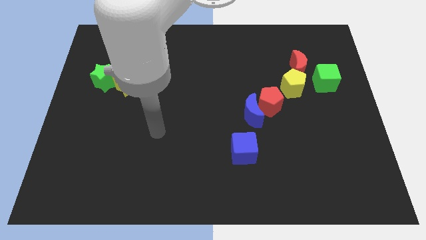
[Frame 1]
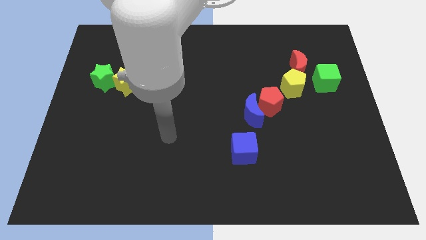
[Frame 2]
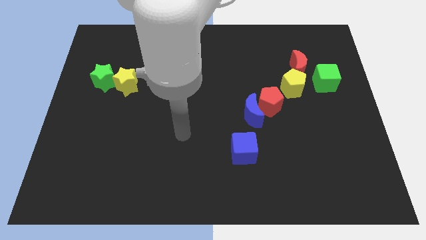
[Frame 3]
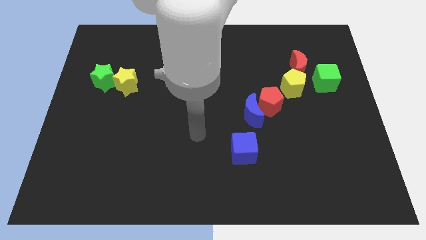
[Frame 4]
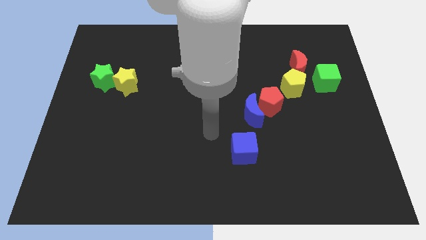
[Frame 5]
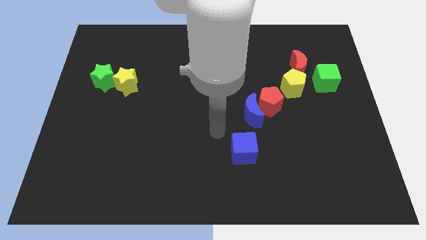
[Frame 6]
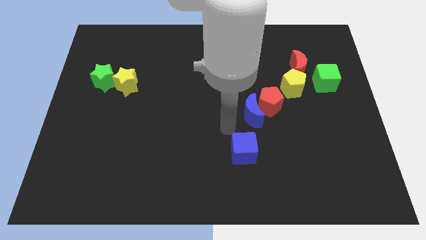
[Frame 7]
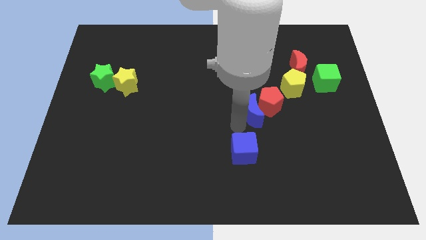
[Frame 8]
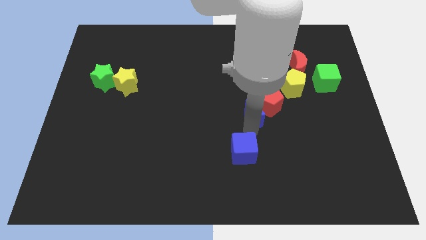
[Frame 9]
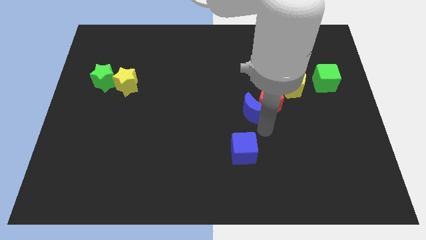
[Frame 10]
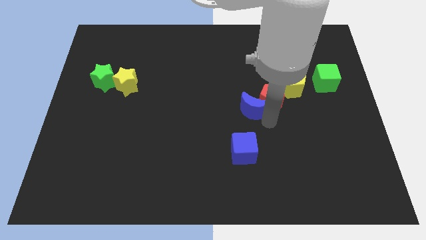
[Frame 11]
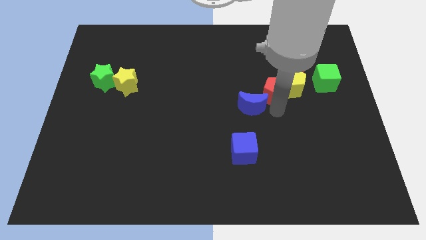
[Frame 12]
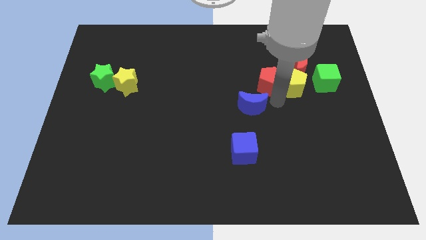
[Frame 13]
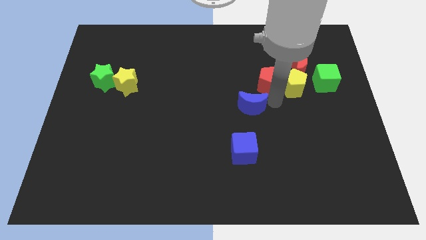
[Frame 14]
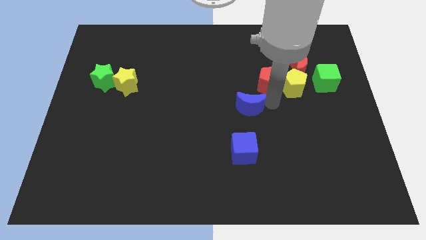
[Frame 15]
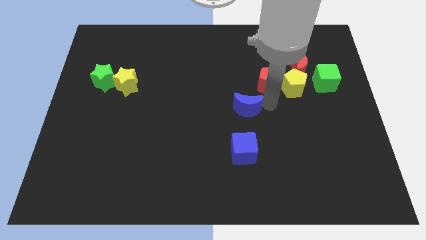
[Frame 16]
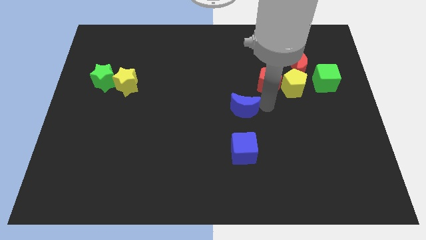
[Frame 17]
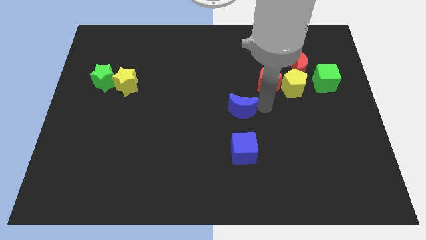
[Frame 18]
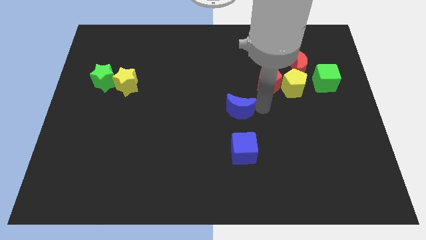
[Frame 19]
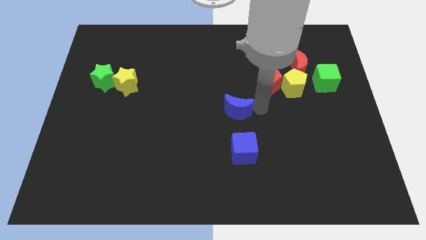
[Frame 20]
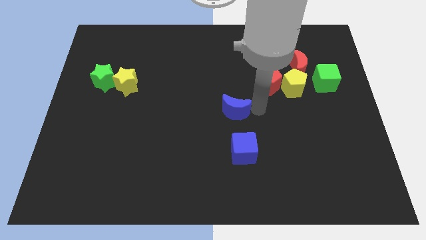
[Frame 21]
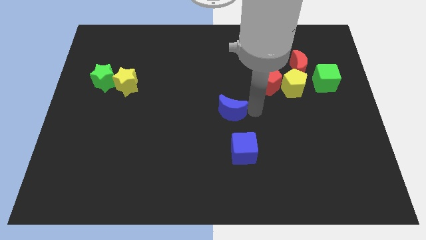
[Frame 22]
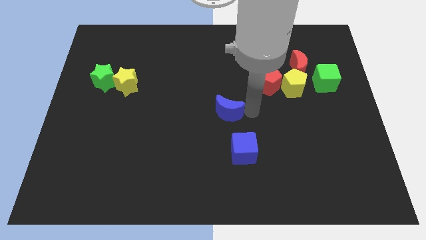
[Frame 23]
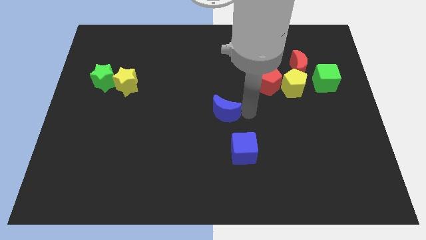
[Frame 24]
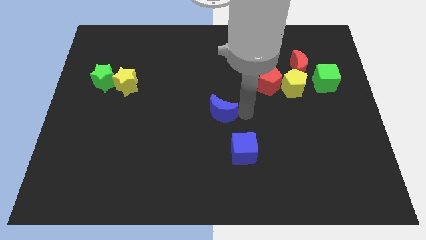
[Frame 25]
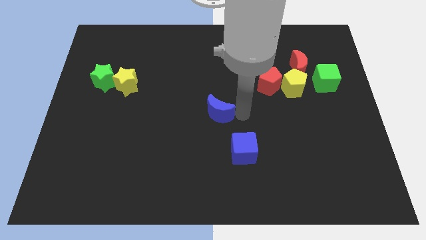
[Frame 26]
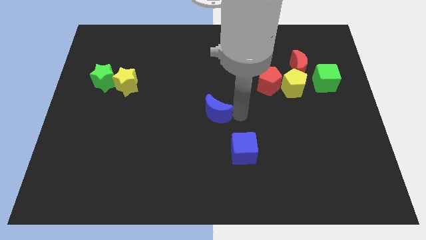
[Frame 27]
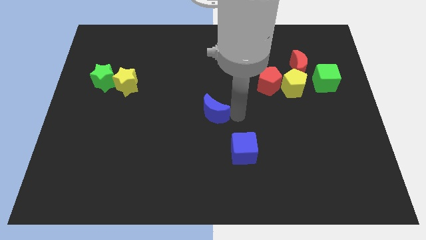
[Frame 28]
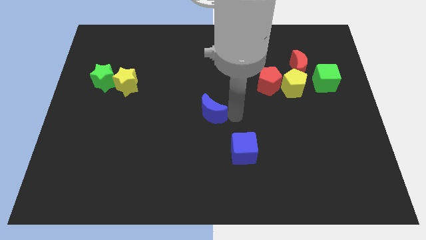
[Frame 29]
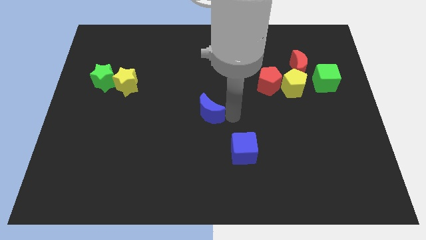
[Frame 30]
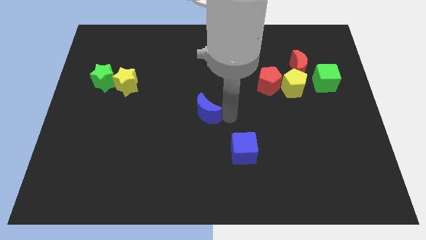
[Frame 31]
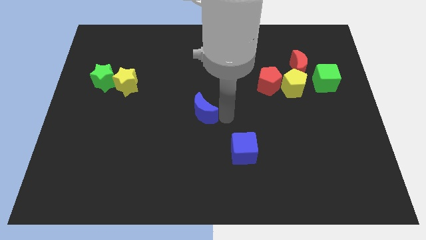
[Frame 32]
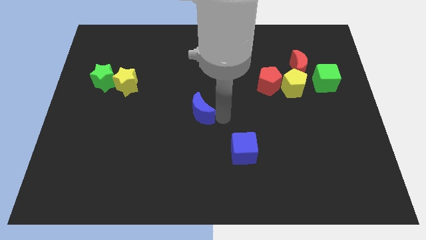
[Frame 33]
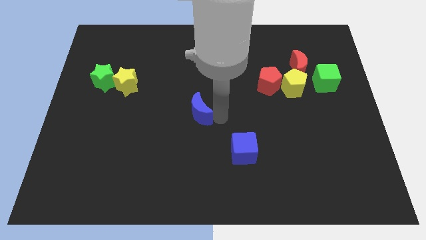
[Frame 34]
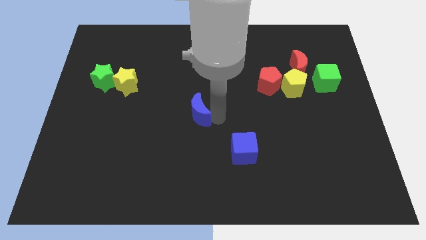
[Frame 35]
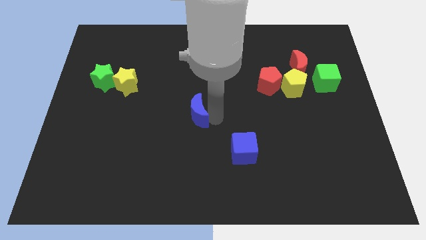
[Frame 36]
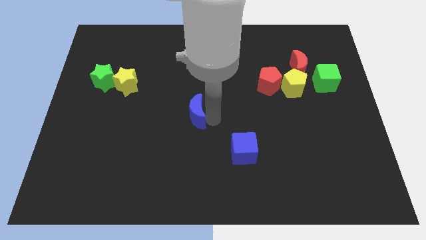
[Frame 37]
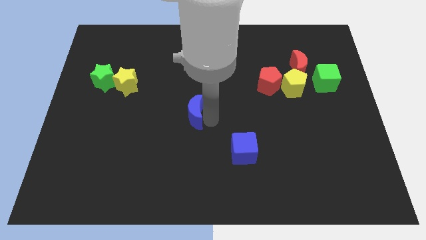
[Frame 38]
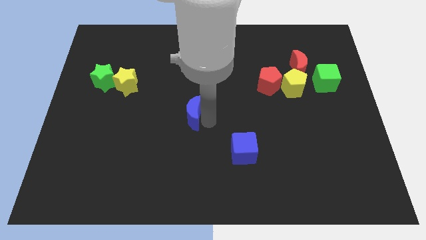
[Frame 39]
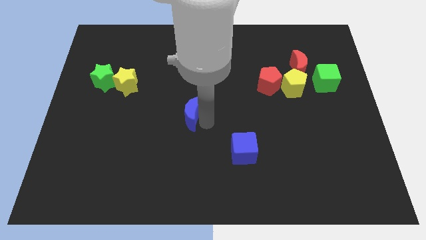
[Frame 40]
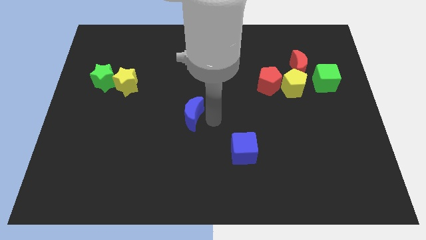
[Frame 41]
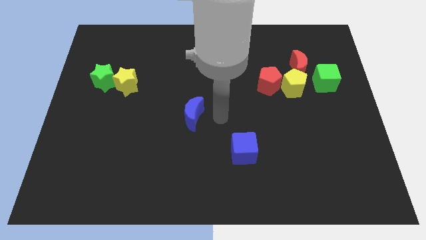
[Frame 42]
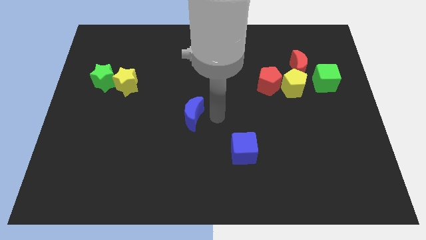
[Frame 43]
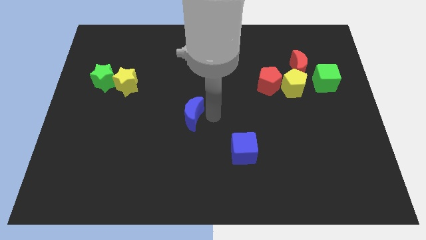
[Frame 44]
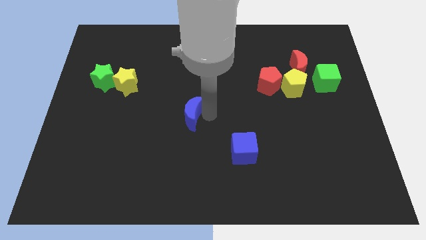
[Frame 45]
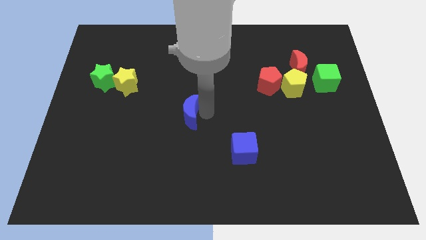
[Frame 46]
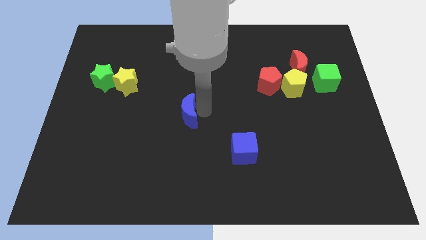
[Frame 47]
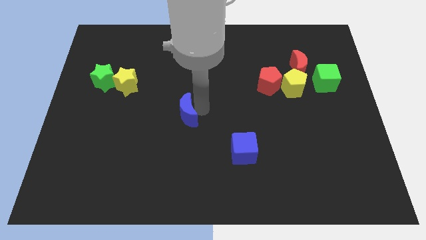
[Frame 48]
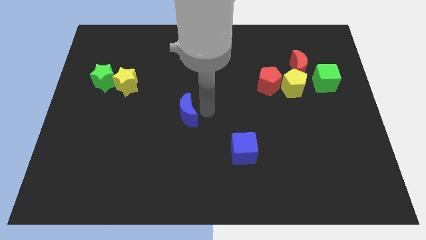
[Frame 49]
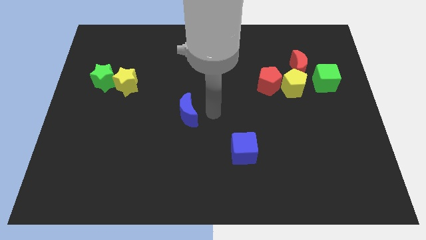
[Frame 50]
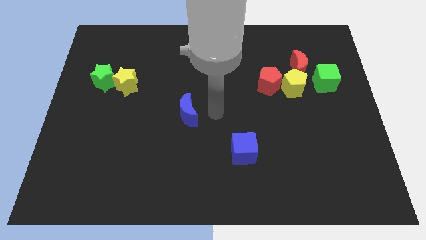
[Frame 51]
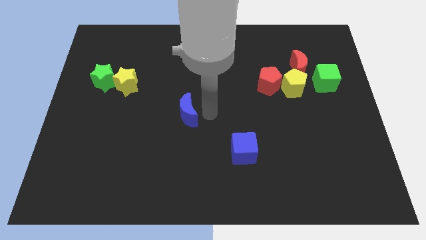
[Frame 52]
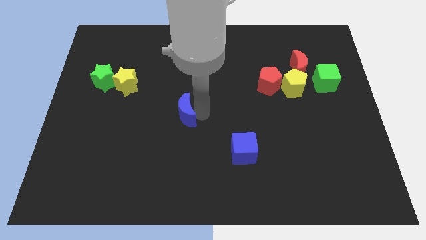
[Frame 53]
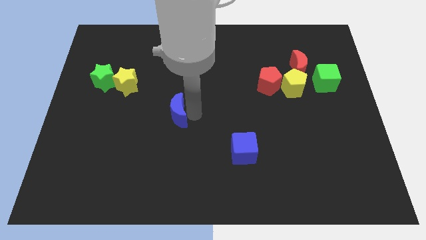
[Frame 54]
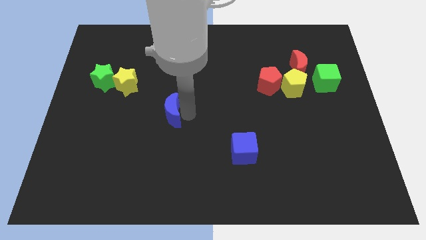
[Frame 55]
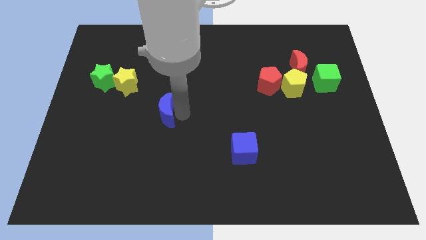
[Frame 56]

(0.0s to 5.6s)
push the blue moon to the left
